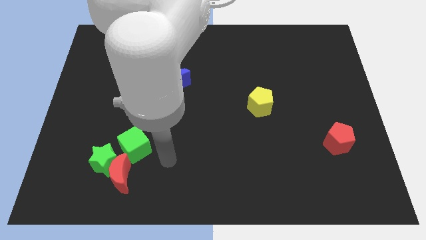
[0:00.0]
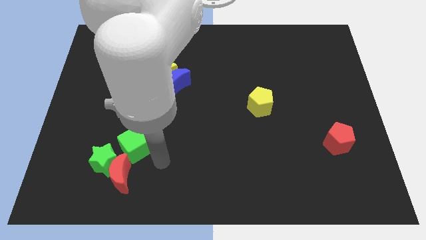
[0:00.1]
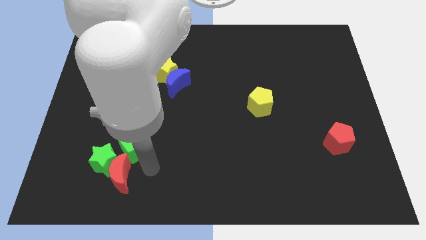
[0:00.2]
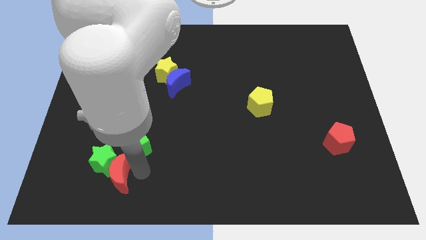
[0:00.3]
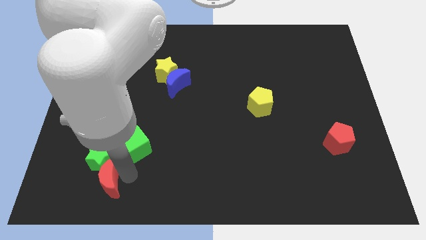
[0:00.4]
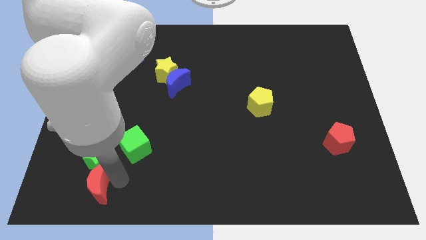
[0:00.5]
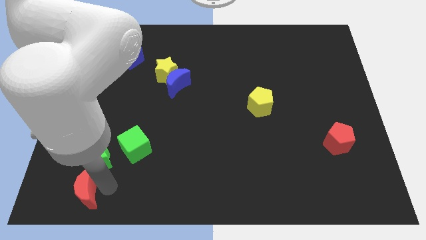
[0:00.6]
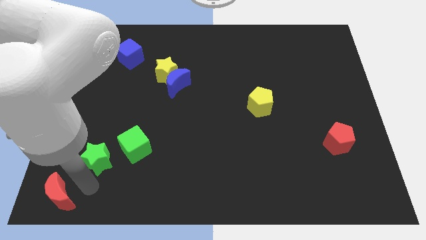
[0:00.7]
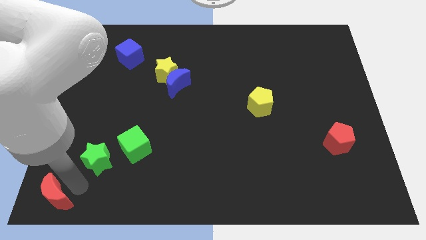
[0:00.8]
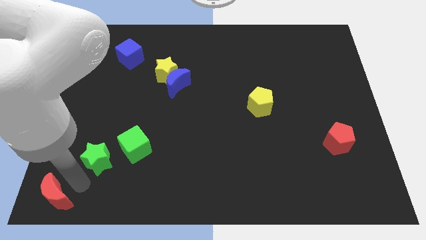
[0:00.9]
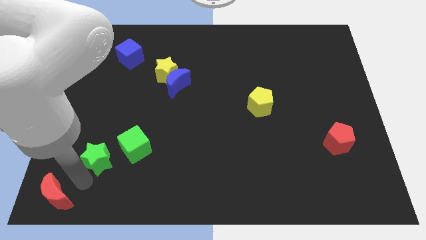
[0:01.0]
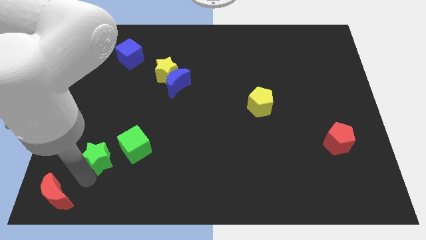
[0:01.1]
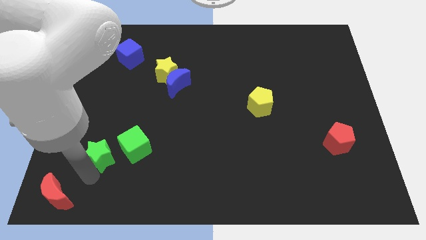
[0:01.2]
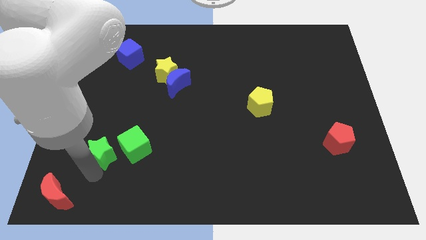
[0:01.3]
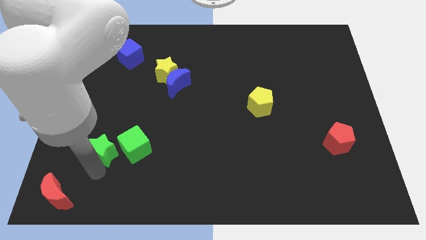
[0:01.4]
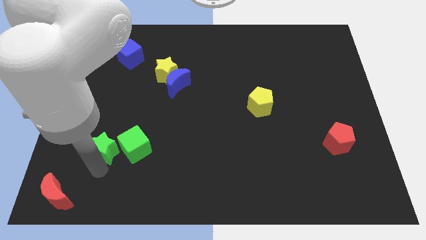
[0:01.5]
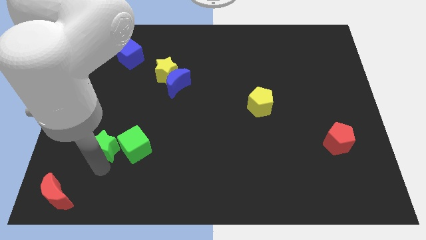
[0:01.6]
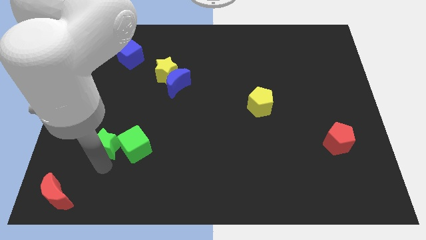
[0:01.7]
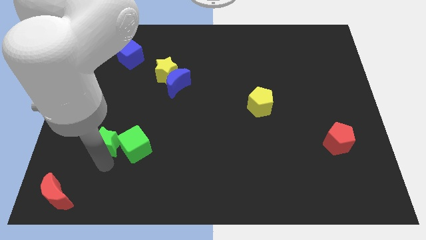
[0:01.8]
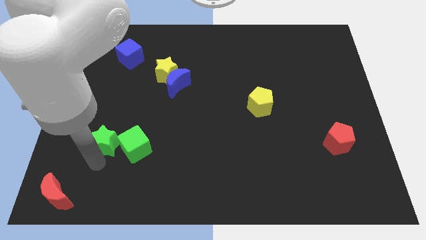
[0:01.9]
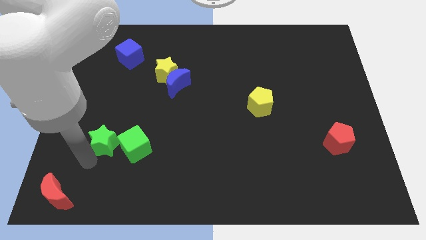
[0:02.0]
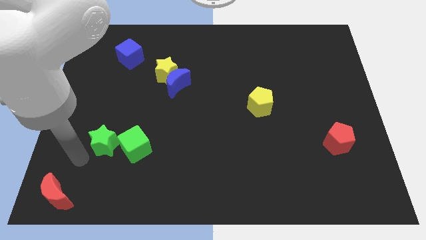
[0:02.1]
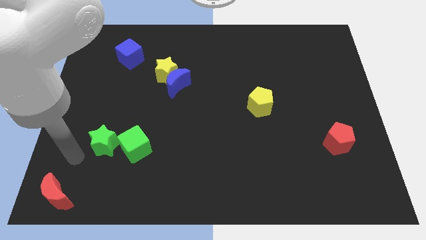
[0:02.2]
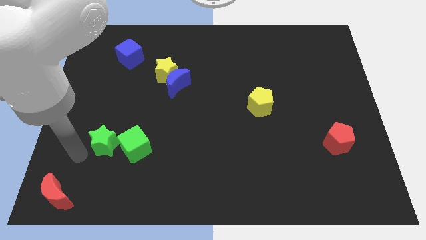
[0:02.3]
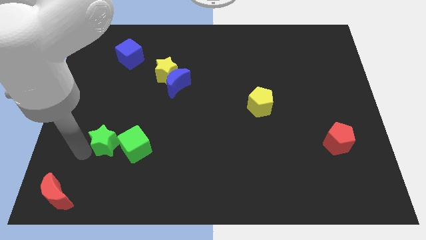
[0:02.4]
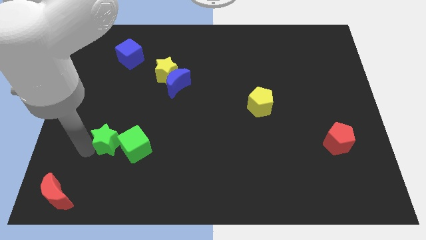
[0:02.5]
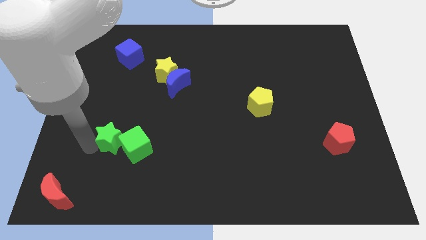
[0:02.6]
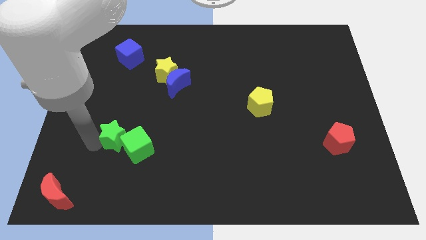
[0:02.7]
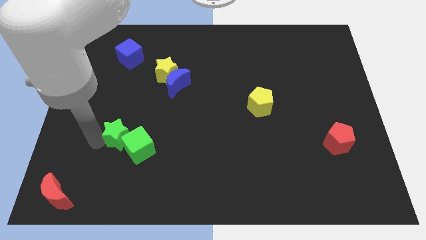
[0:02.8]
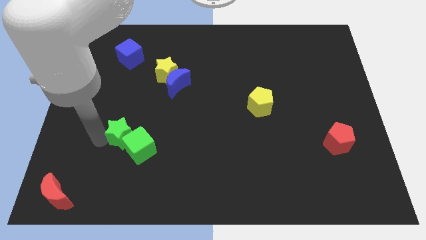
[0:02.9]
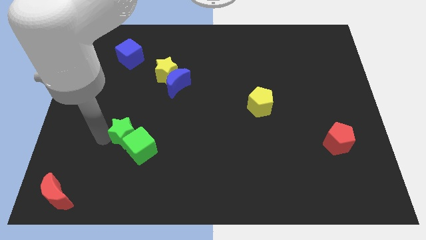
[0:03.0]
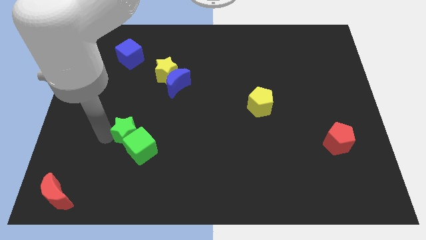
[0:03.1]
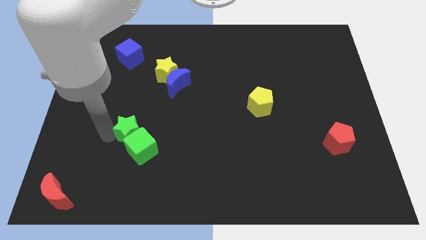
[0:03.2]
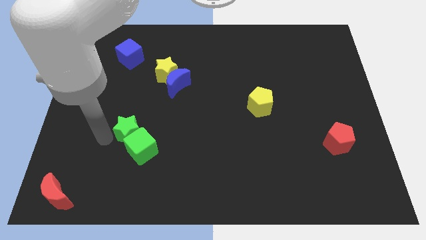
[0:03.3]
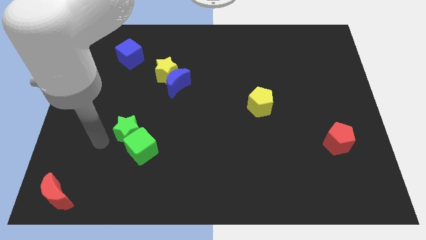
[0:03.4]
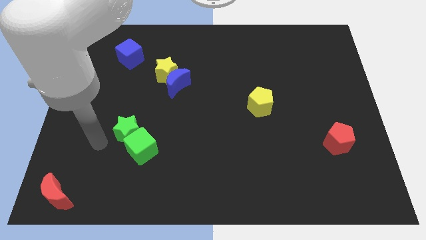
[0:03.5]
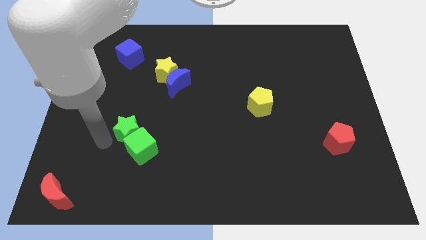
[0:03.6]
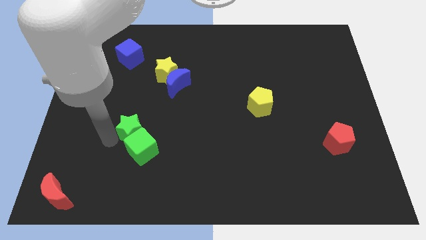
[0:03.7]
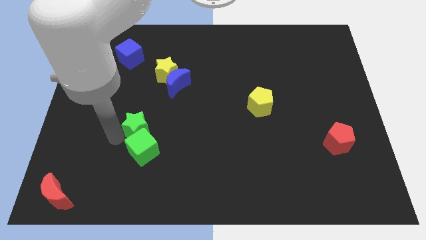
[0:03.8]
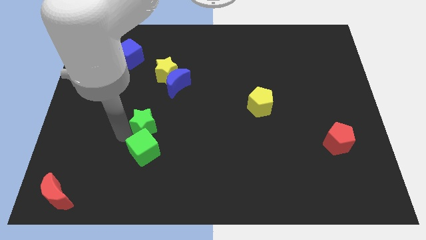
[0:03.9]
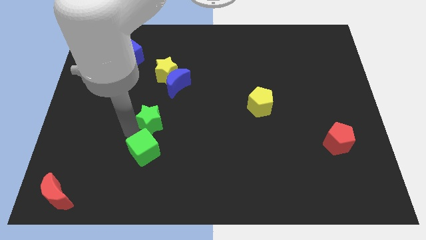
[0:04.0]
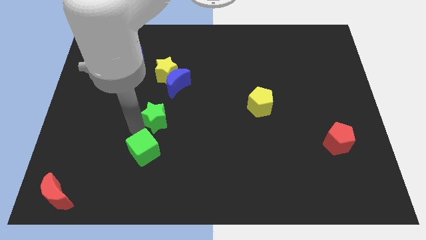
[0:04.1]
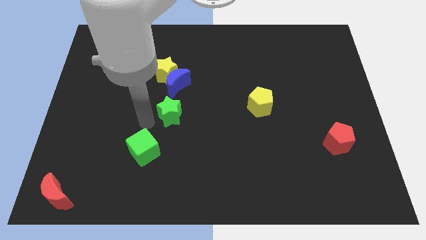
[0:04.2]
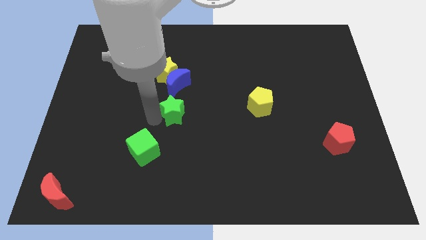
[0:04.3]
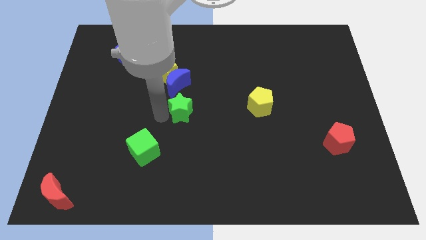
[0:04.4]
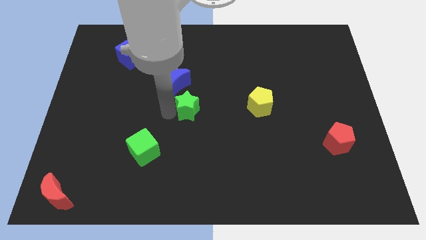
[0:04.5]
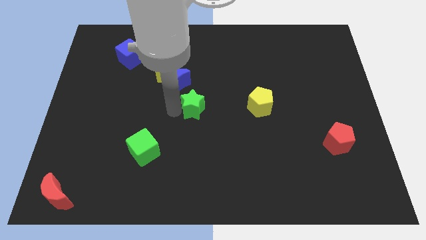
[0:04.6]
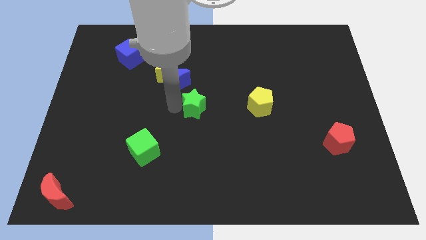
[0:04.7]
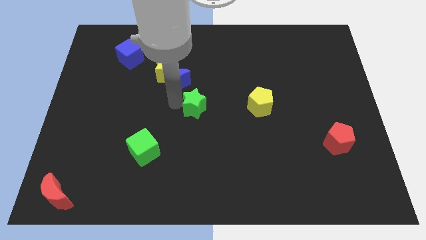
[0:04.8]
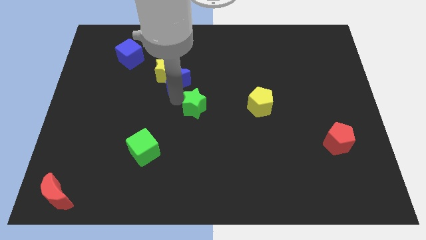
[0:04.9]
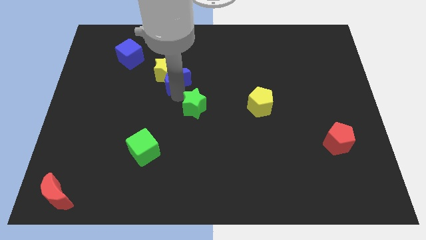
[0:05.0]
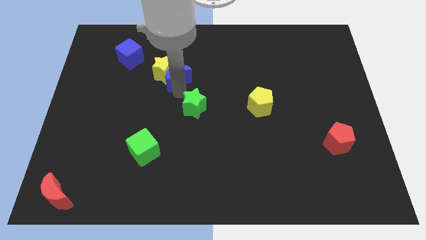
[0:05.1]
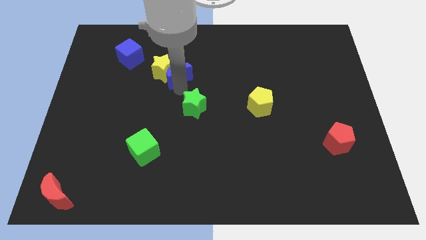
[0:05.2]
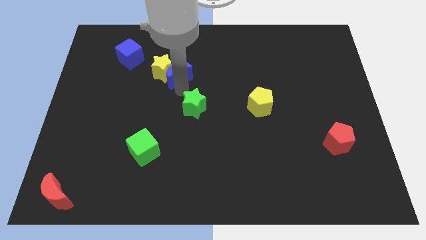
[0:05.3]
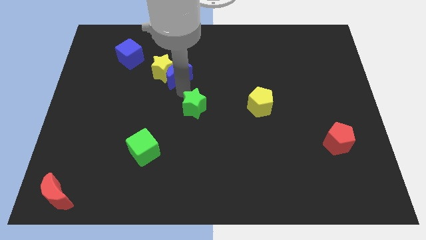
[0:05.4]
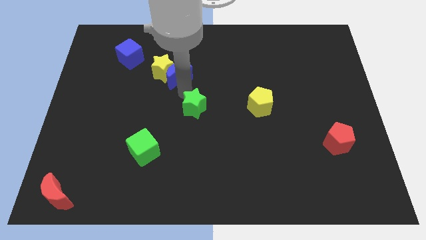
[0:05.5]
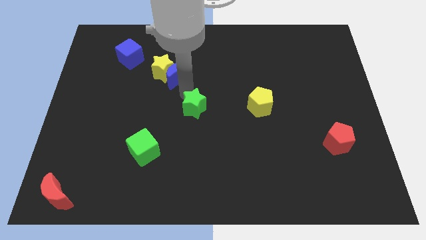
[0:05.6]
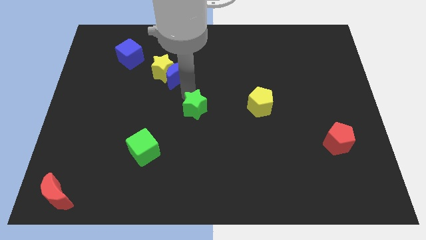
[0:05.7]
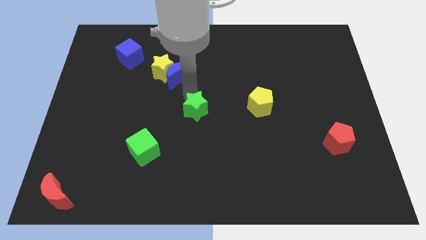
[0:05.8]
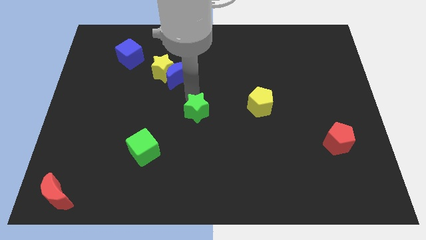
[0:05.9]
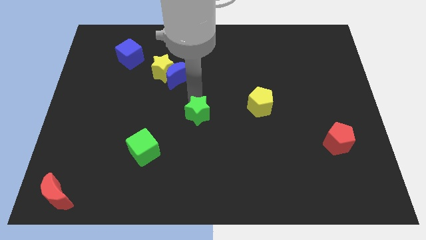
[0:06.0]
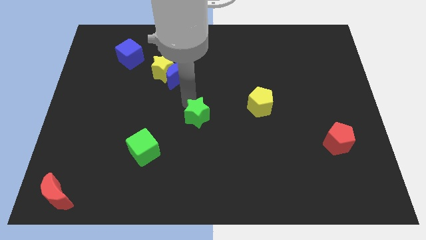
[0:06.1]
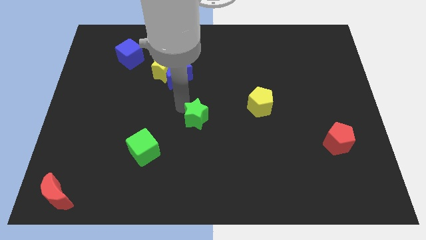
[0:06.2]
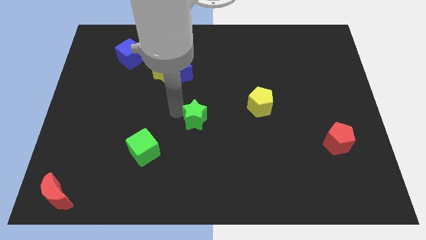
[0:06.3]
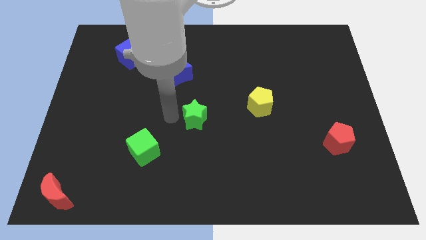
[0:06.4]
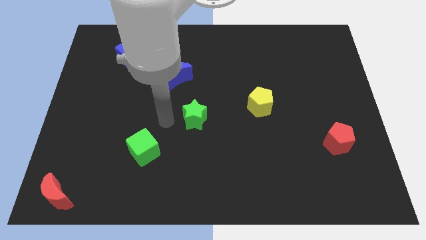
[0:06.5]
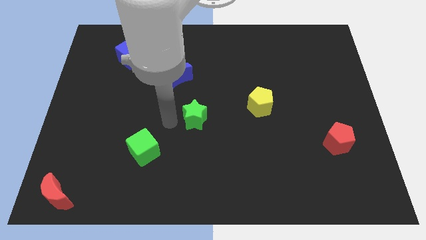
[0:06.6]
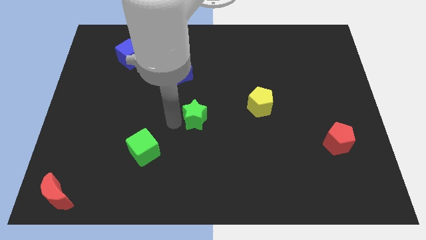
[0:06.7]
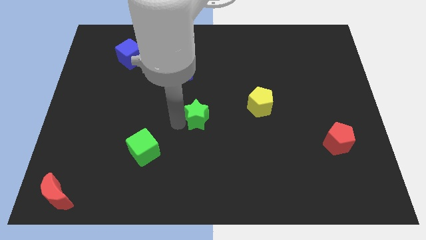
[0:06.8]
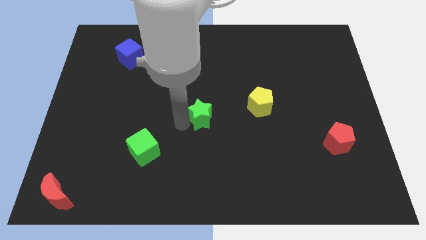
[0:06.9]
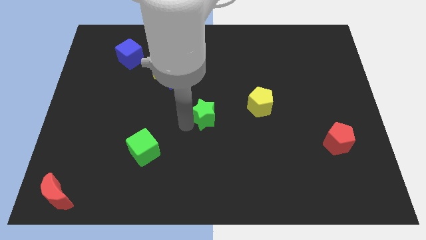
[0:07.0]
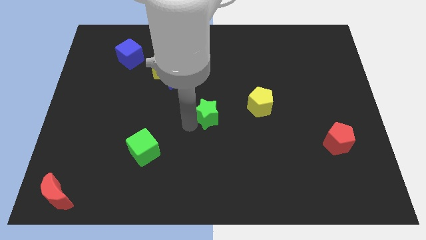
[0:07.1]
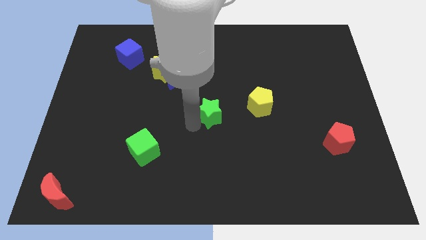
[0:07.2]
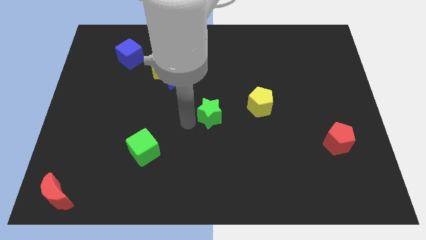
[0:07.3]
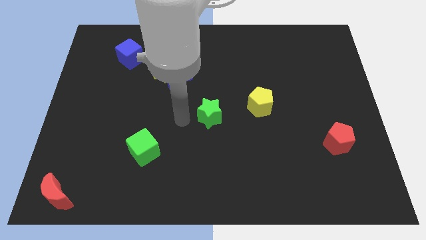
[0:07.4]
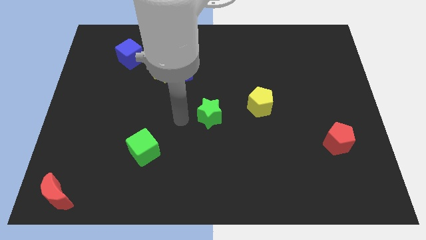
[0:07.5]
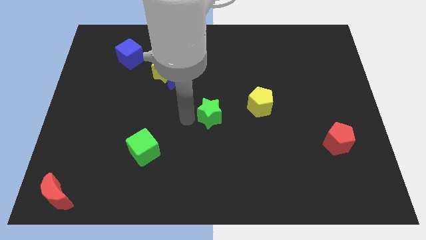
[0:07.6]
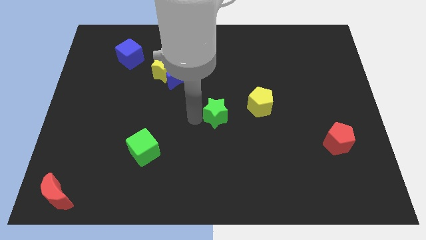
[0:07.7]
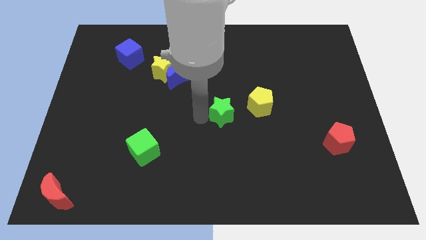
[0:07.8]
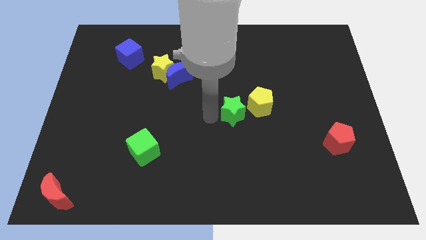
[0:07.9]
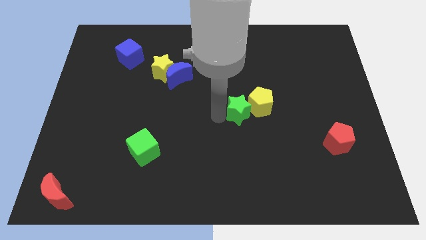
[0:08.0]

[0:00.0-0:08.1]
push the green star close to the yellow pentagon
